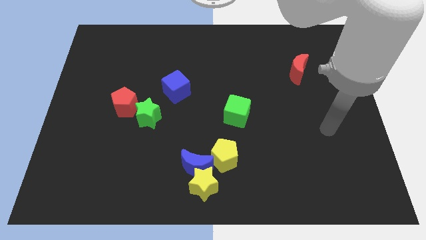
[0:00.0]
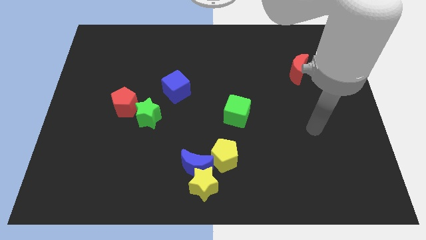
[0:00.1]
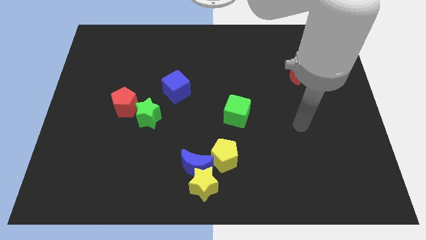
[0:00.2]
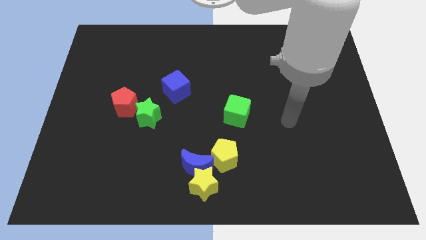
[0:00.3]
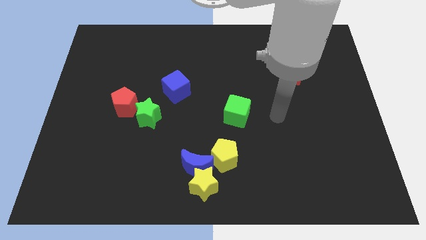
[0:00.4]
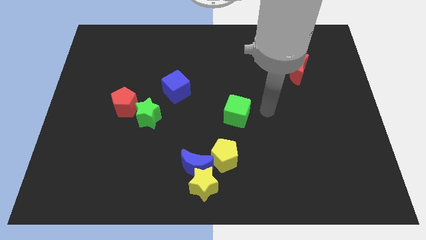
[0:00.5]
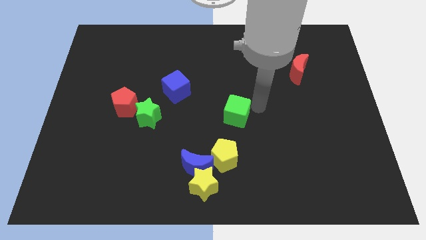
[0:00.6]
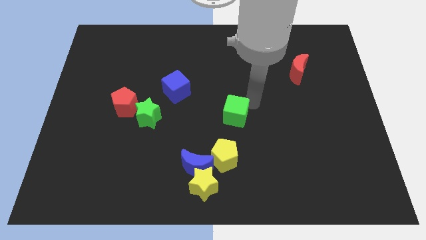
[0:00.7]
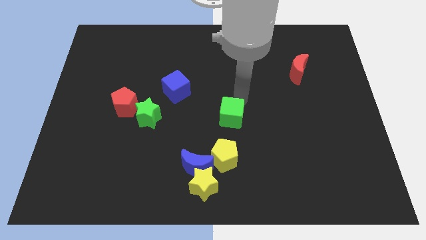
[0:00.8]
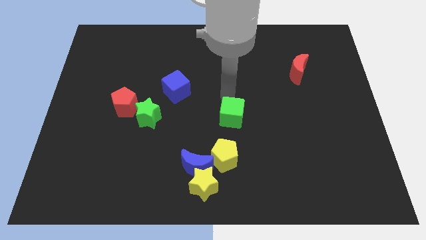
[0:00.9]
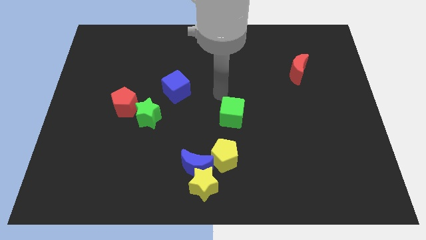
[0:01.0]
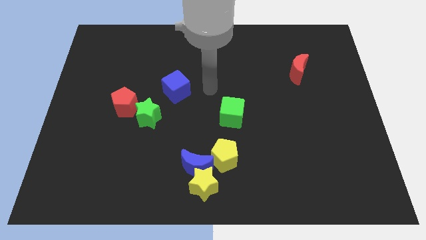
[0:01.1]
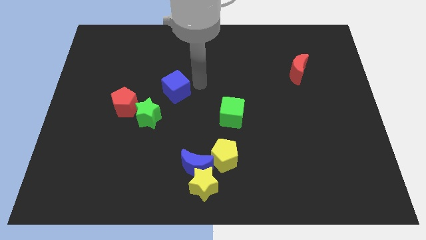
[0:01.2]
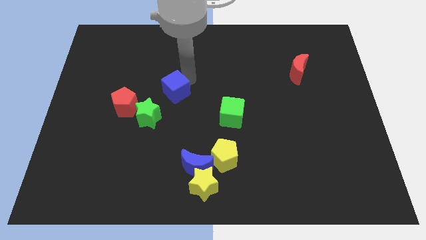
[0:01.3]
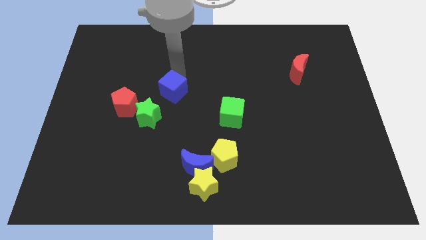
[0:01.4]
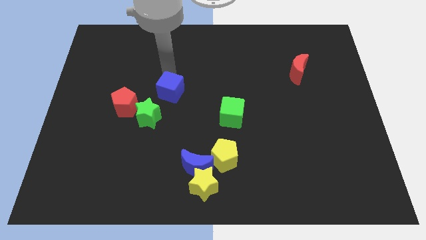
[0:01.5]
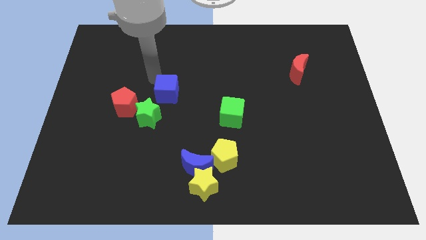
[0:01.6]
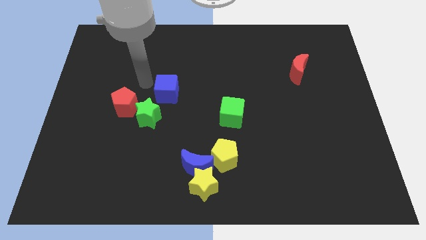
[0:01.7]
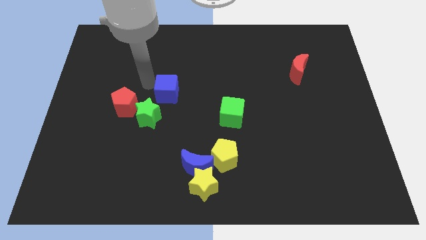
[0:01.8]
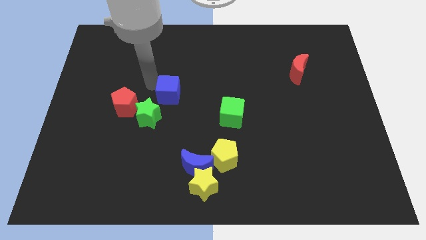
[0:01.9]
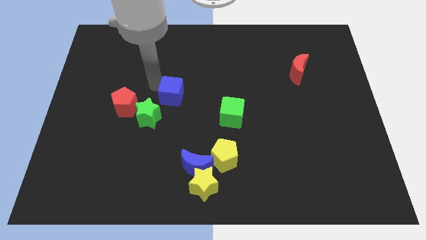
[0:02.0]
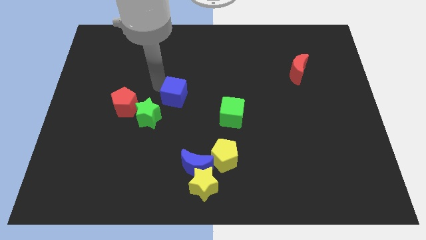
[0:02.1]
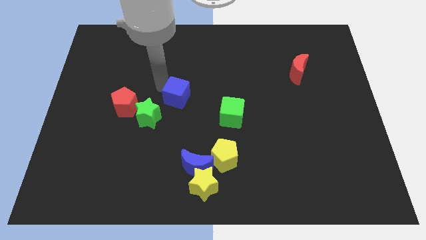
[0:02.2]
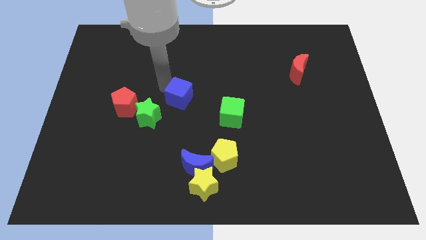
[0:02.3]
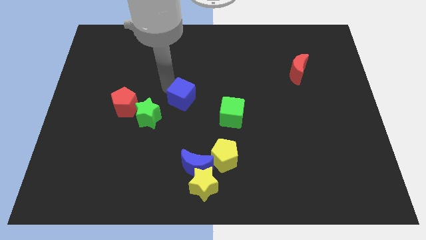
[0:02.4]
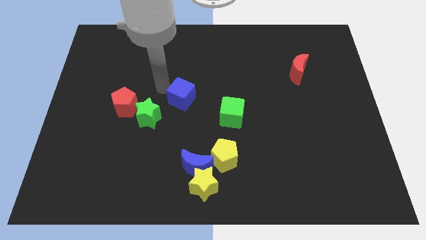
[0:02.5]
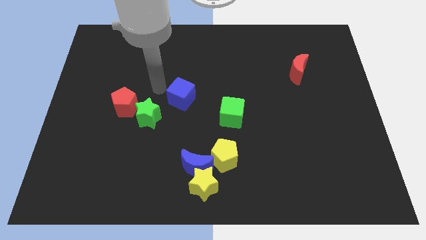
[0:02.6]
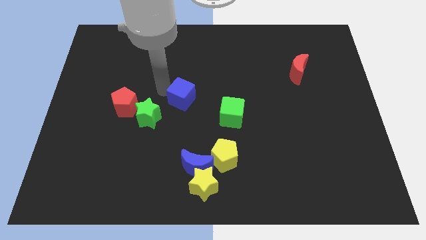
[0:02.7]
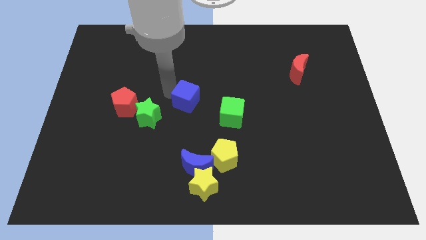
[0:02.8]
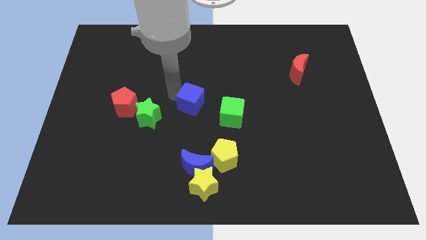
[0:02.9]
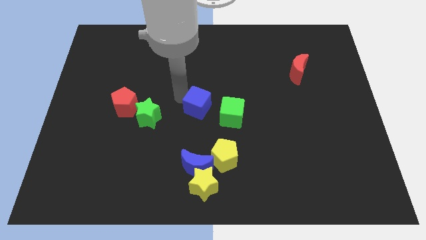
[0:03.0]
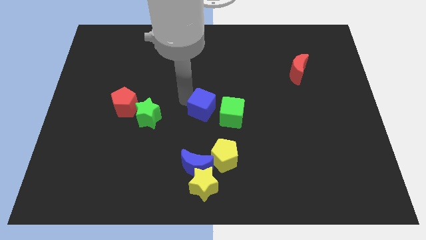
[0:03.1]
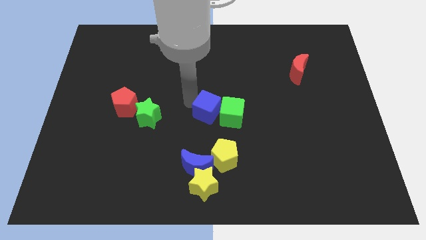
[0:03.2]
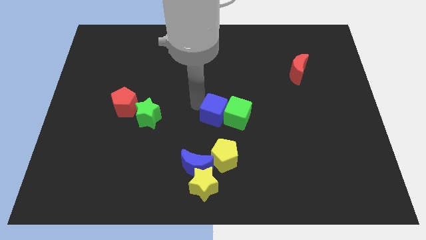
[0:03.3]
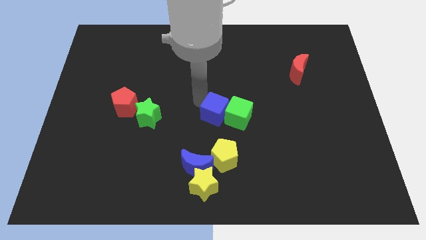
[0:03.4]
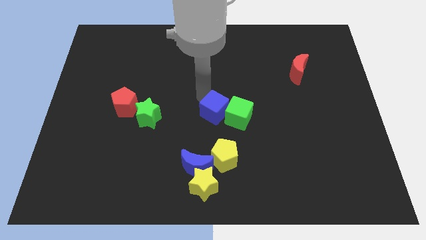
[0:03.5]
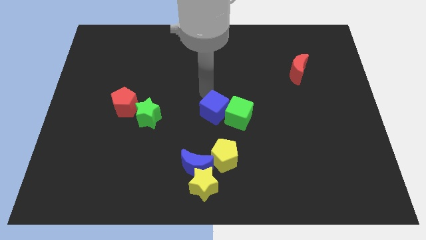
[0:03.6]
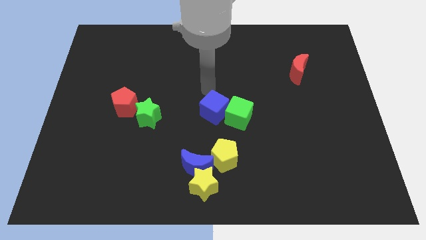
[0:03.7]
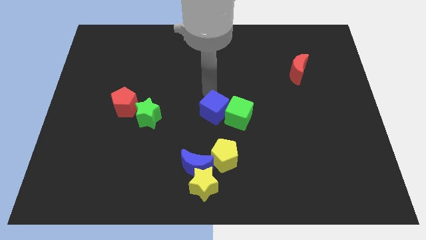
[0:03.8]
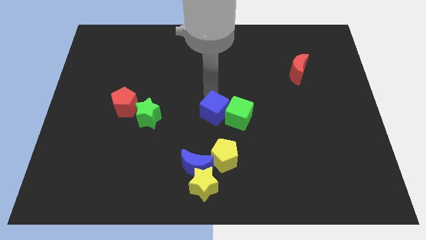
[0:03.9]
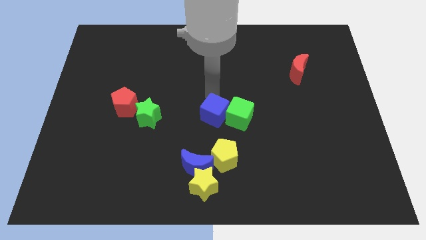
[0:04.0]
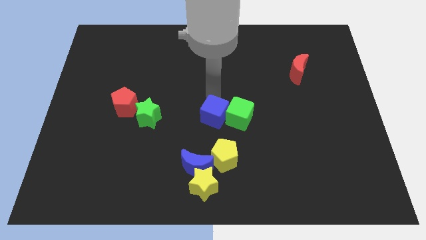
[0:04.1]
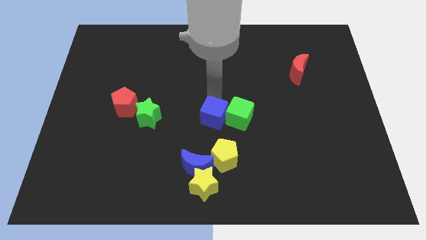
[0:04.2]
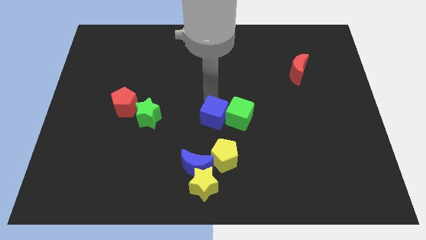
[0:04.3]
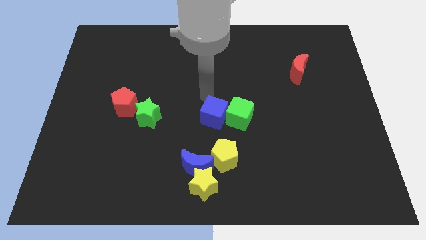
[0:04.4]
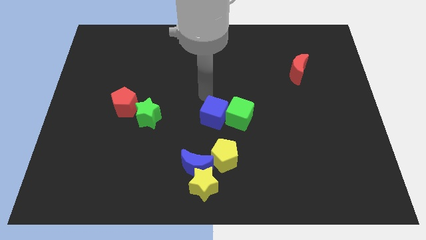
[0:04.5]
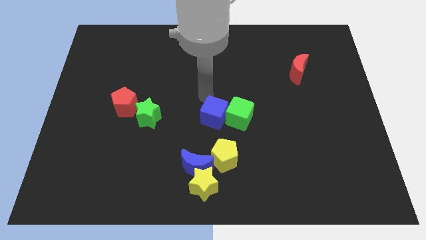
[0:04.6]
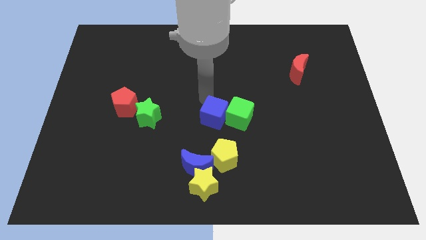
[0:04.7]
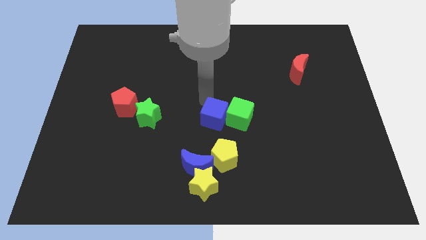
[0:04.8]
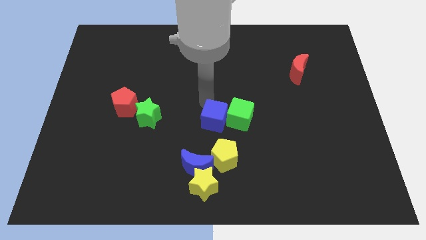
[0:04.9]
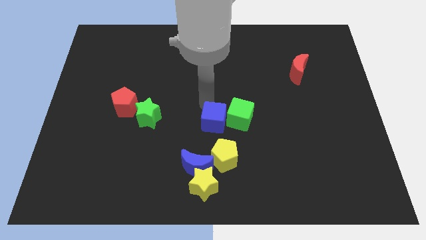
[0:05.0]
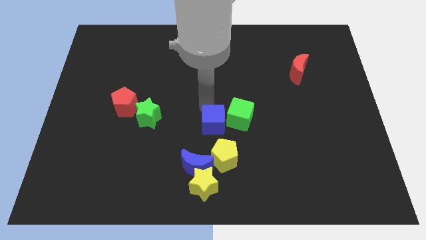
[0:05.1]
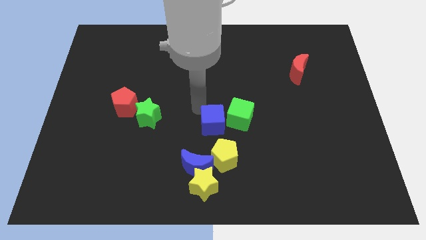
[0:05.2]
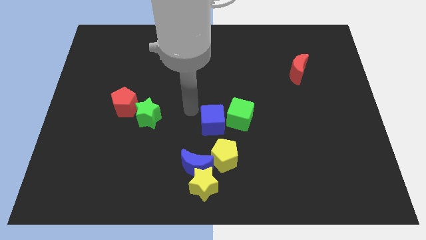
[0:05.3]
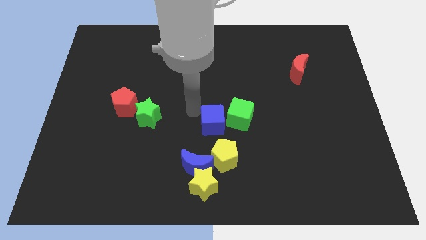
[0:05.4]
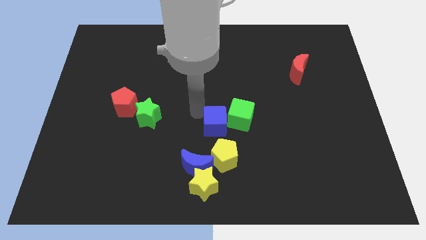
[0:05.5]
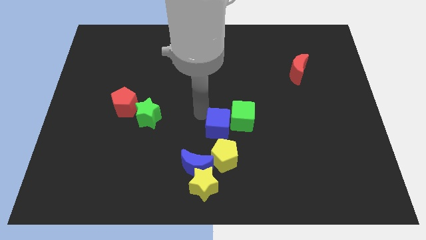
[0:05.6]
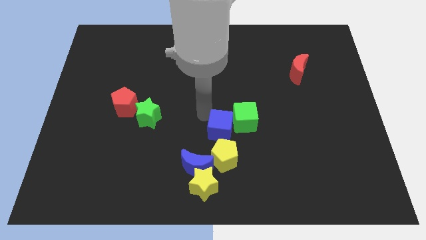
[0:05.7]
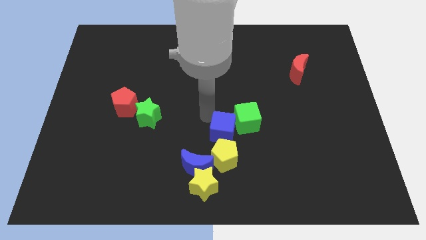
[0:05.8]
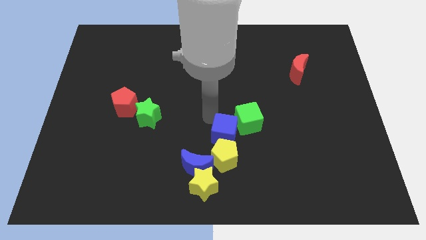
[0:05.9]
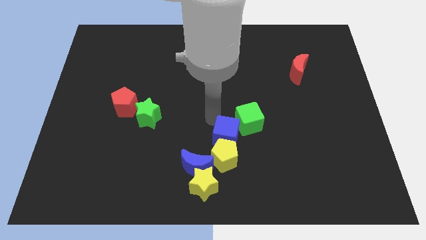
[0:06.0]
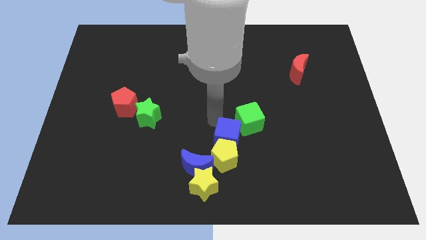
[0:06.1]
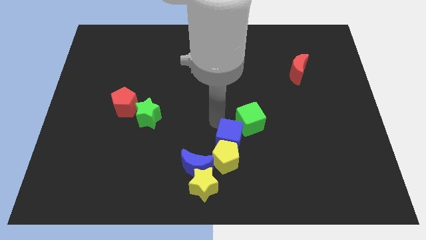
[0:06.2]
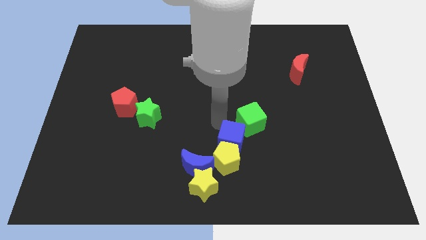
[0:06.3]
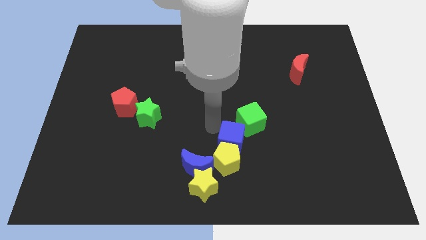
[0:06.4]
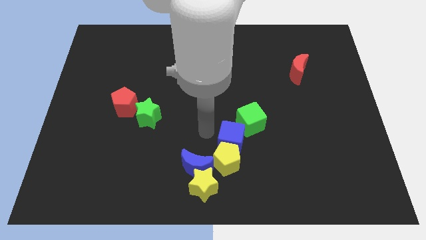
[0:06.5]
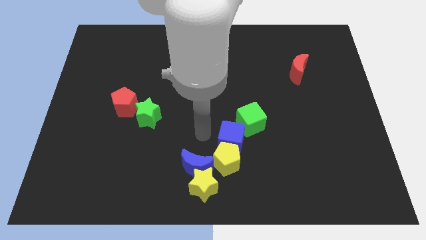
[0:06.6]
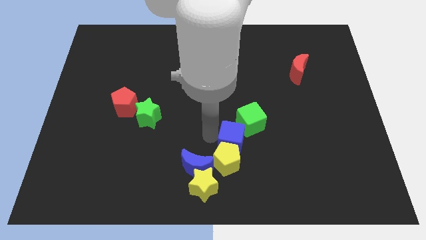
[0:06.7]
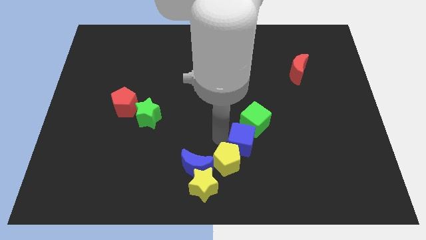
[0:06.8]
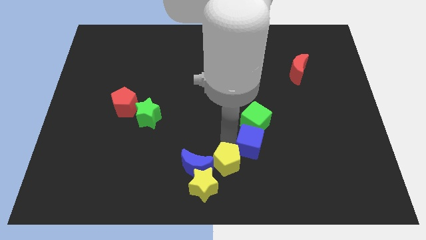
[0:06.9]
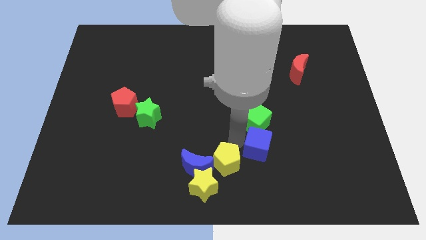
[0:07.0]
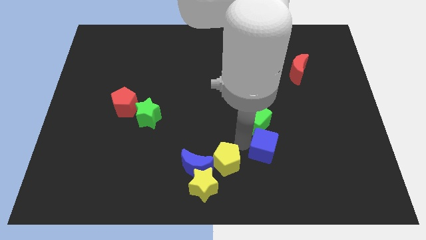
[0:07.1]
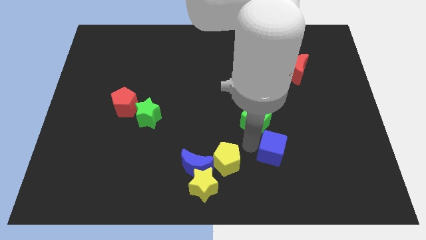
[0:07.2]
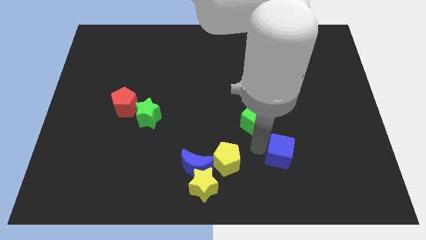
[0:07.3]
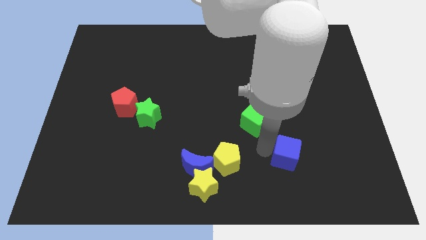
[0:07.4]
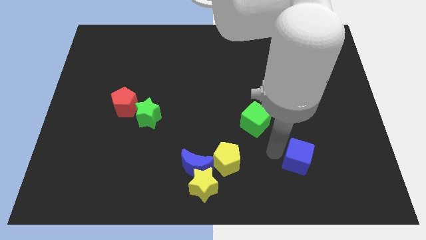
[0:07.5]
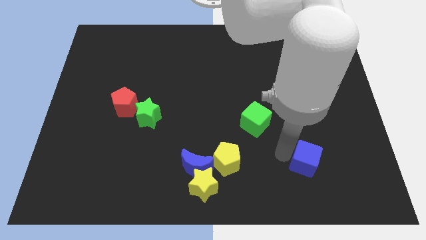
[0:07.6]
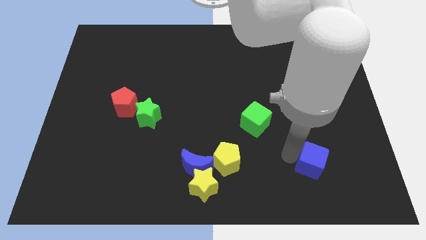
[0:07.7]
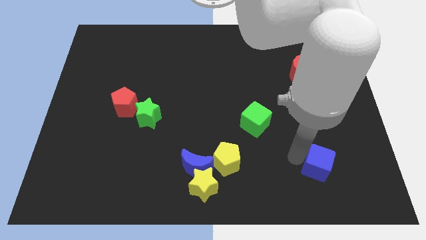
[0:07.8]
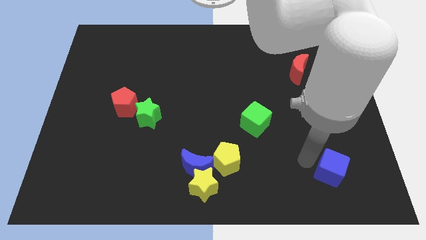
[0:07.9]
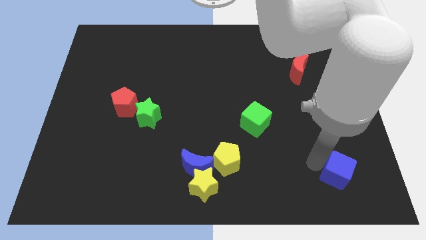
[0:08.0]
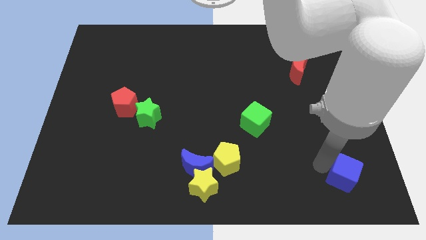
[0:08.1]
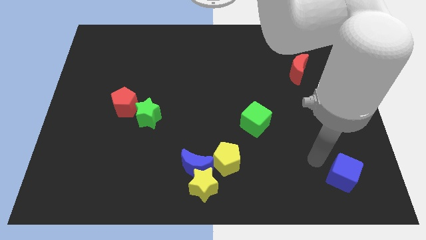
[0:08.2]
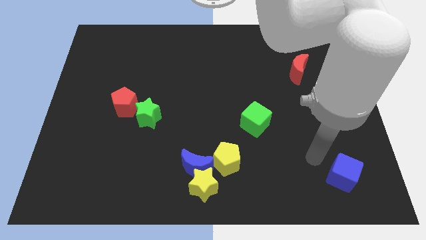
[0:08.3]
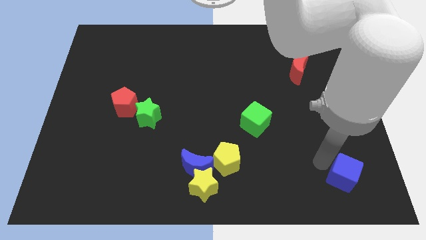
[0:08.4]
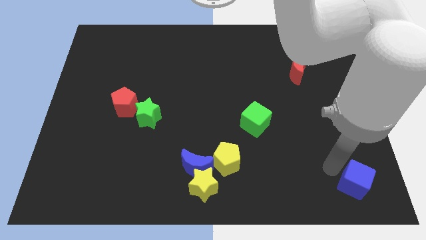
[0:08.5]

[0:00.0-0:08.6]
put the blue cube to the lower right corner
